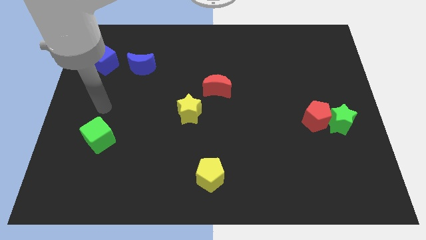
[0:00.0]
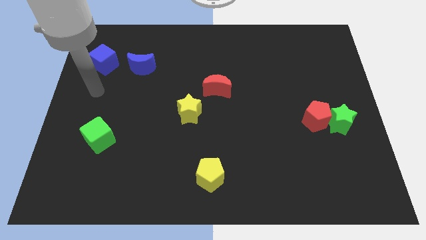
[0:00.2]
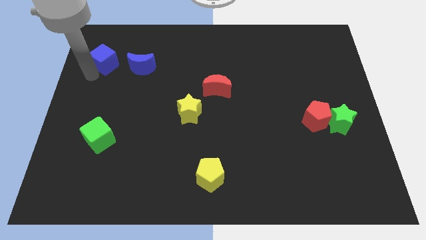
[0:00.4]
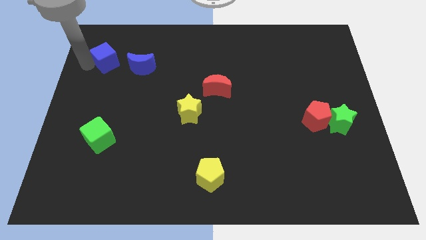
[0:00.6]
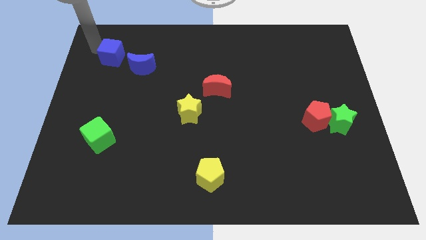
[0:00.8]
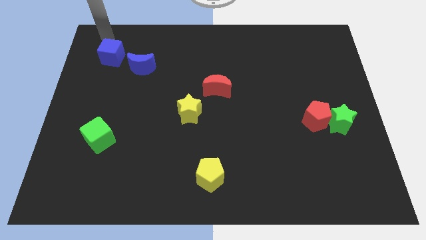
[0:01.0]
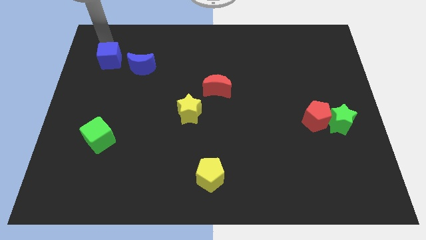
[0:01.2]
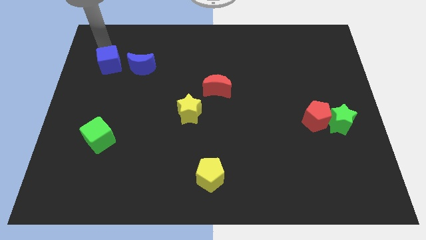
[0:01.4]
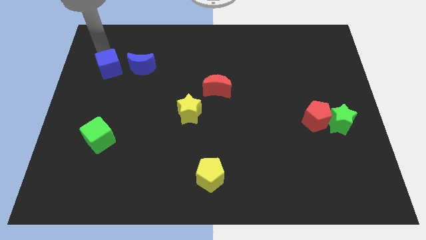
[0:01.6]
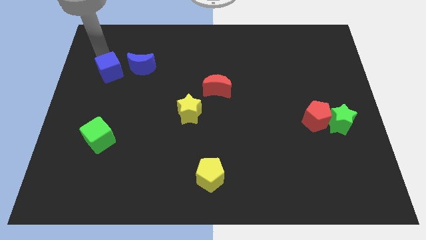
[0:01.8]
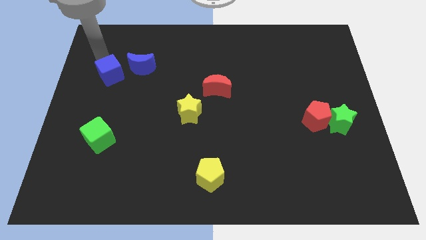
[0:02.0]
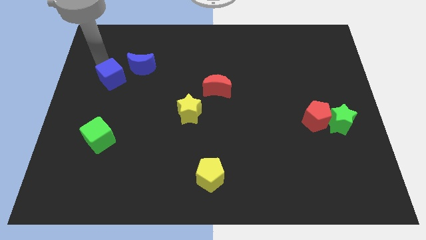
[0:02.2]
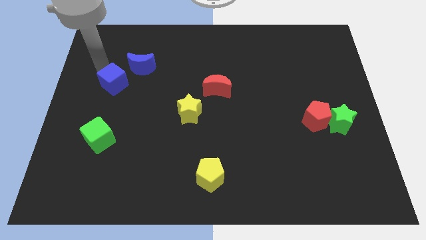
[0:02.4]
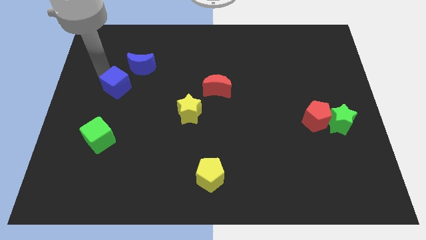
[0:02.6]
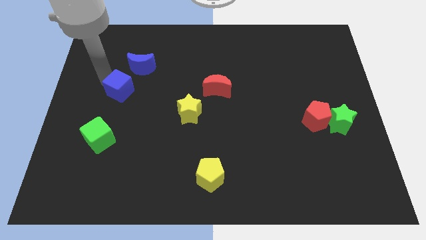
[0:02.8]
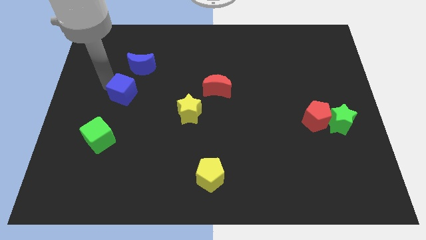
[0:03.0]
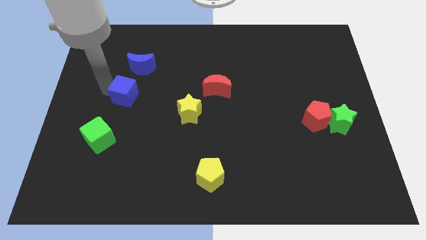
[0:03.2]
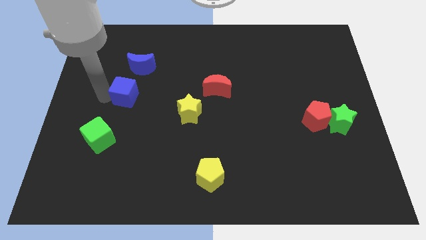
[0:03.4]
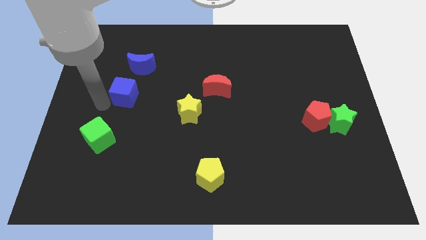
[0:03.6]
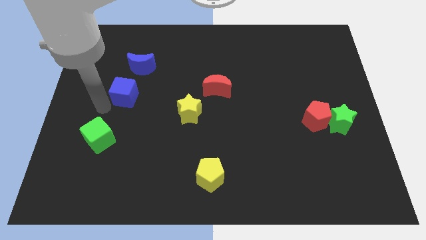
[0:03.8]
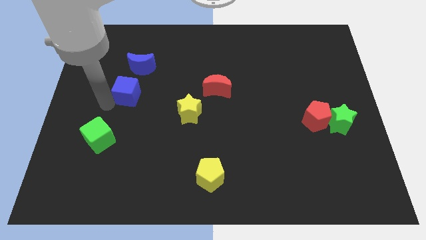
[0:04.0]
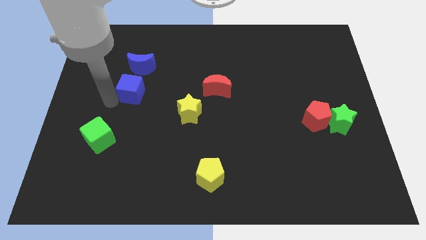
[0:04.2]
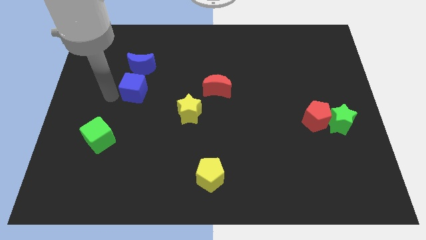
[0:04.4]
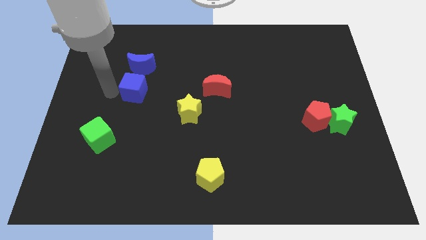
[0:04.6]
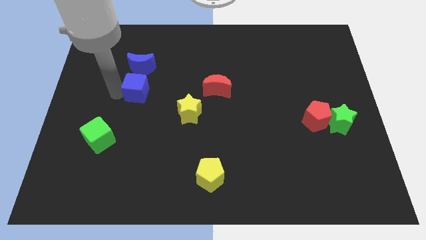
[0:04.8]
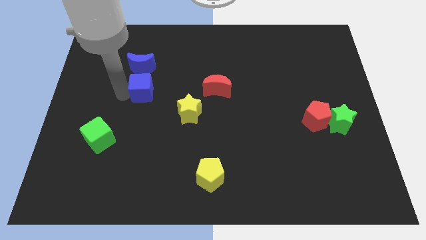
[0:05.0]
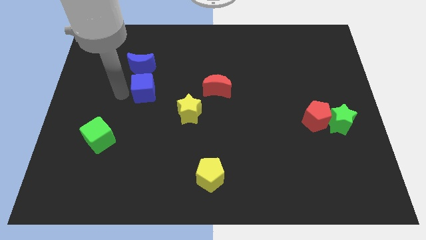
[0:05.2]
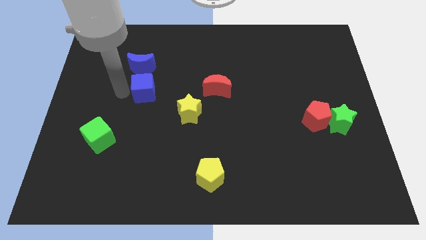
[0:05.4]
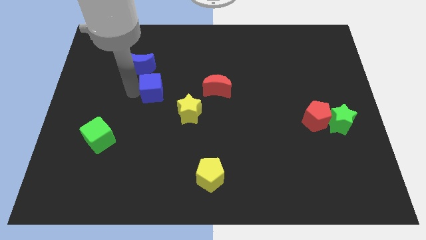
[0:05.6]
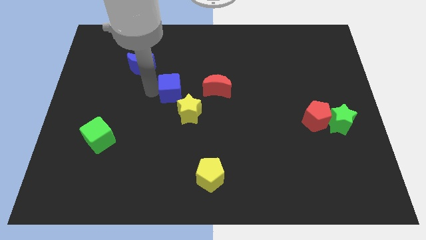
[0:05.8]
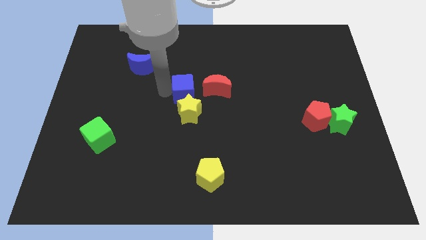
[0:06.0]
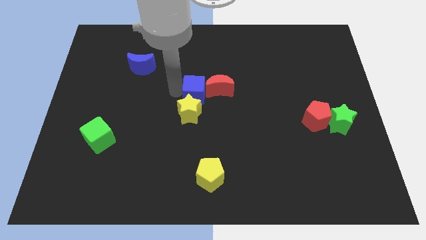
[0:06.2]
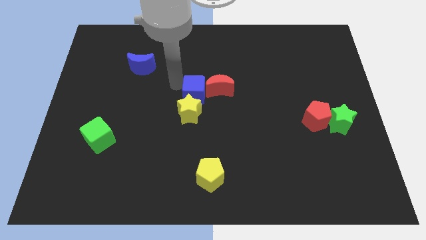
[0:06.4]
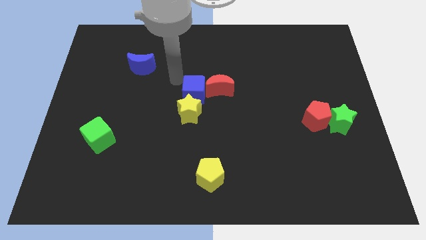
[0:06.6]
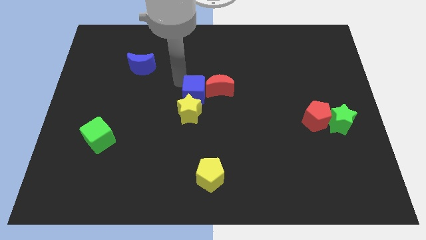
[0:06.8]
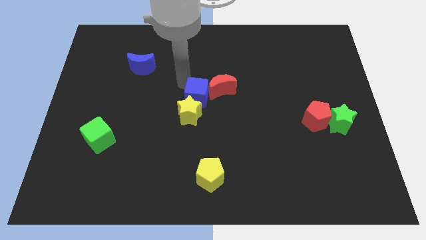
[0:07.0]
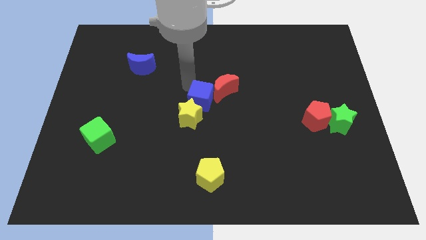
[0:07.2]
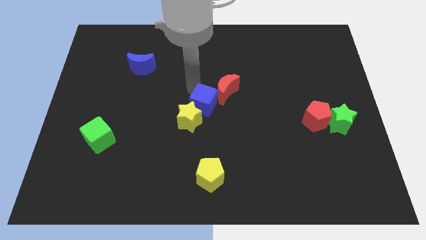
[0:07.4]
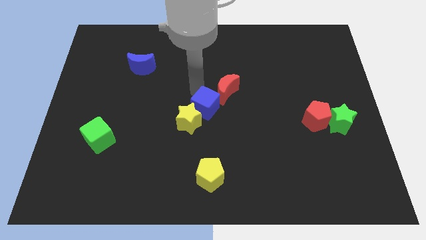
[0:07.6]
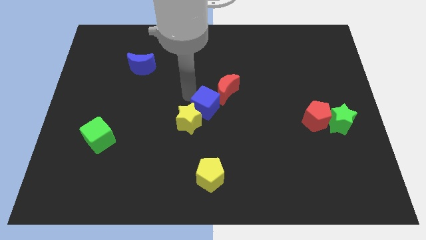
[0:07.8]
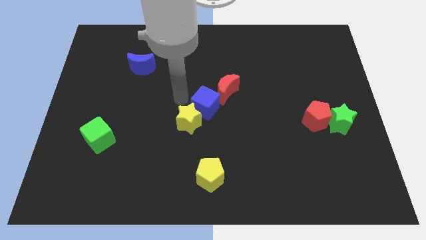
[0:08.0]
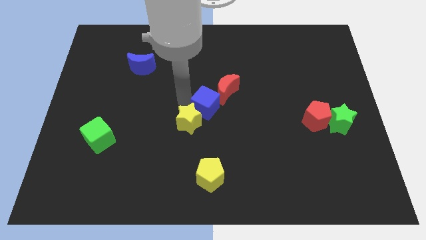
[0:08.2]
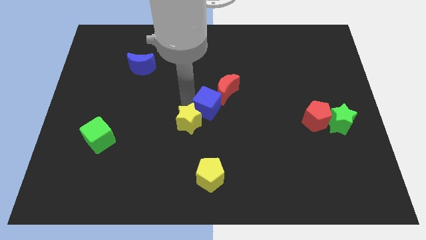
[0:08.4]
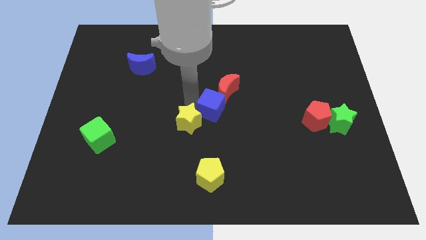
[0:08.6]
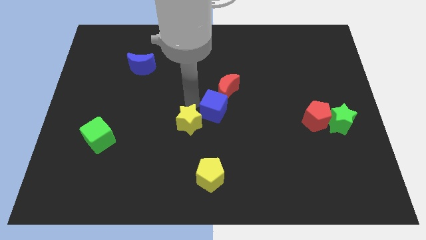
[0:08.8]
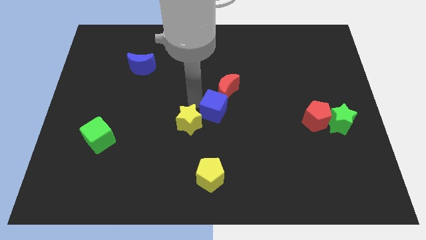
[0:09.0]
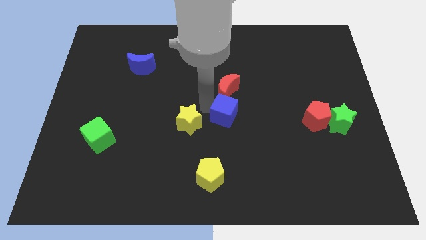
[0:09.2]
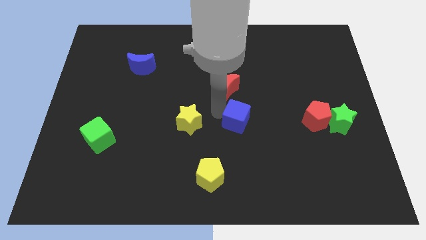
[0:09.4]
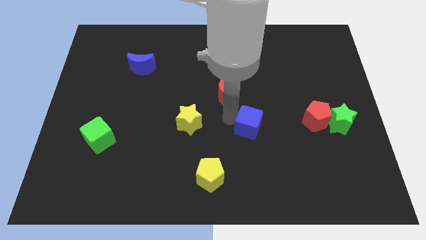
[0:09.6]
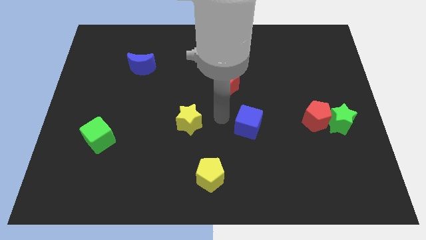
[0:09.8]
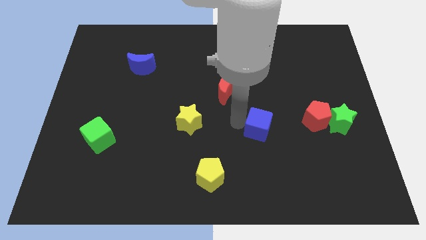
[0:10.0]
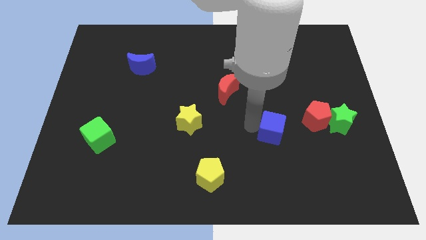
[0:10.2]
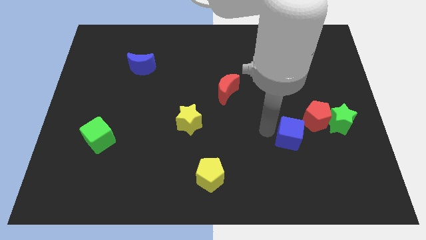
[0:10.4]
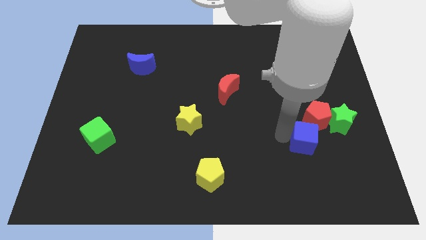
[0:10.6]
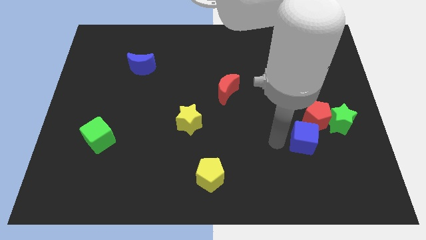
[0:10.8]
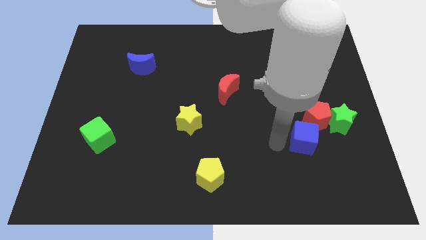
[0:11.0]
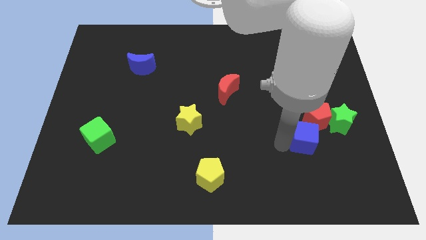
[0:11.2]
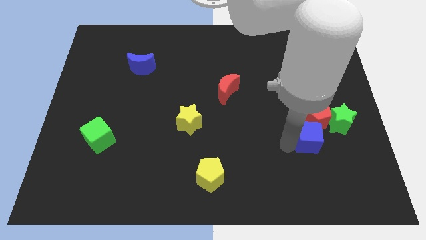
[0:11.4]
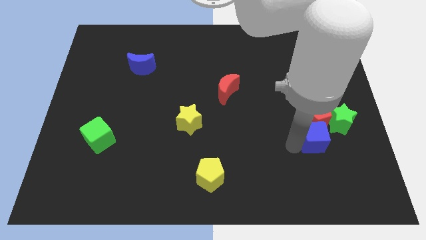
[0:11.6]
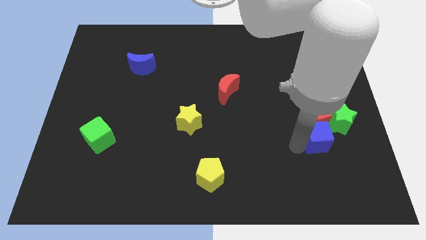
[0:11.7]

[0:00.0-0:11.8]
put the blue cube to the bottom right side of the red pentagon
